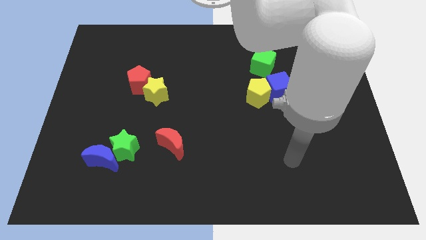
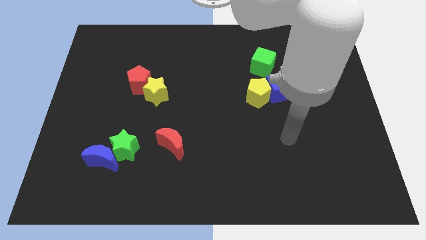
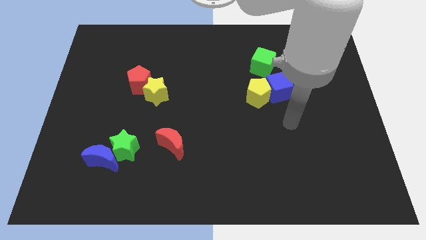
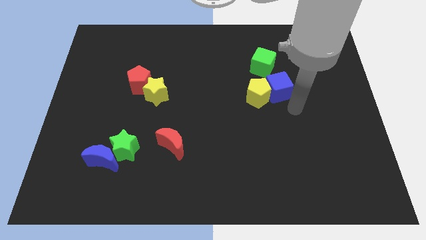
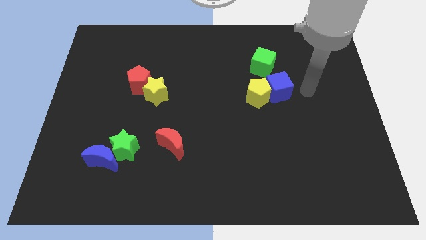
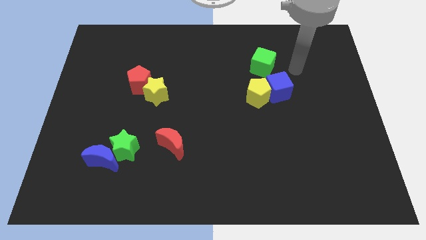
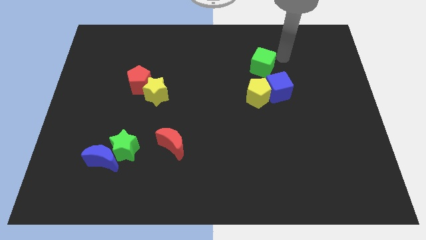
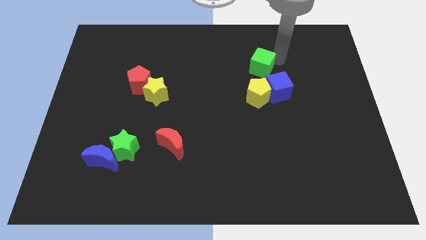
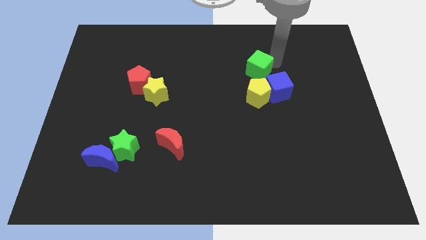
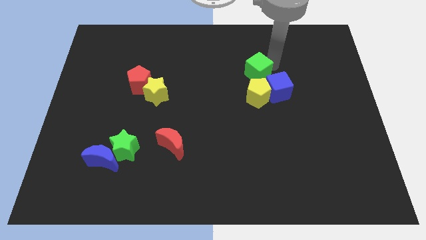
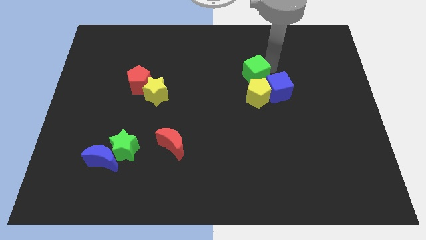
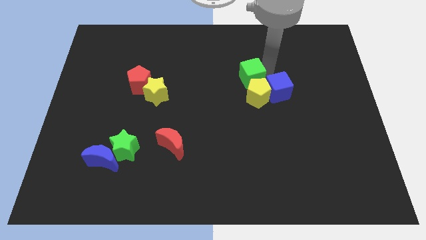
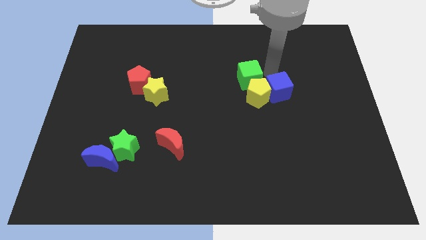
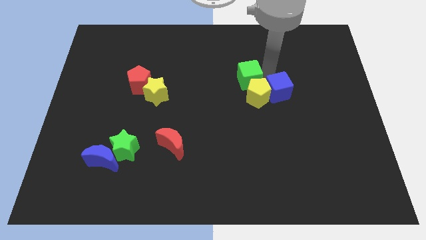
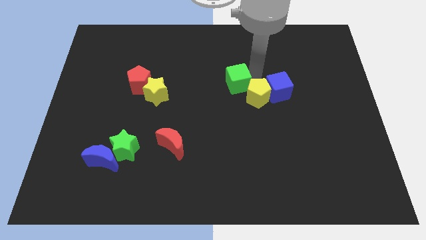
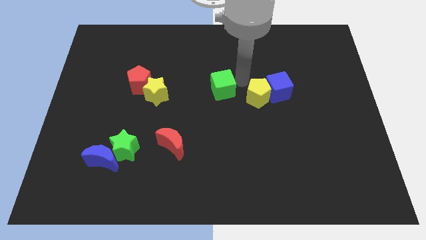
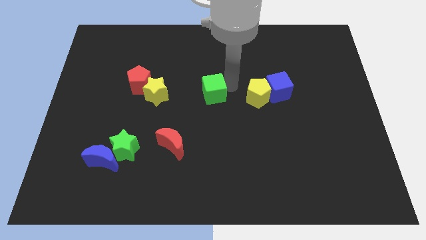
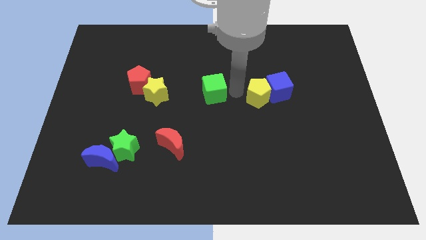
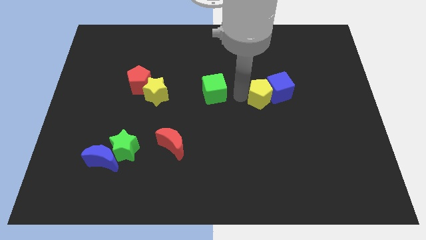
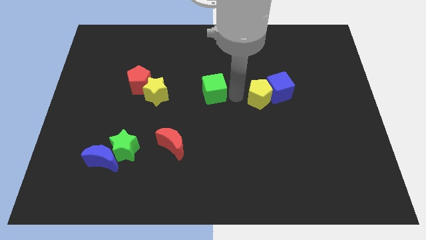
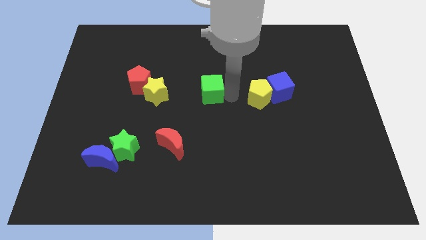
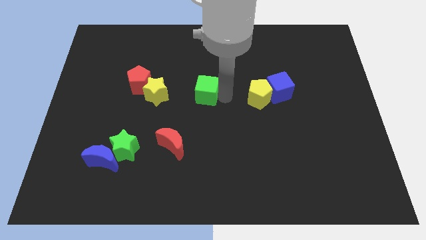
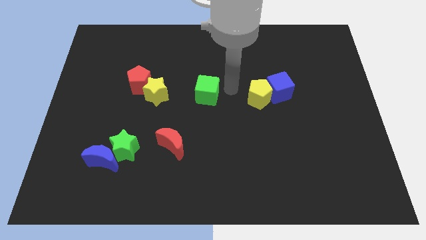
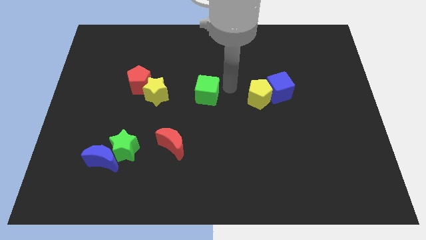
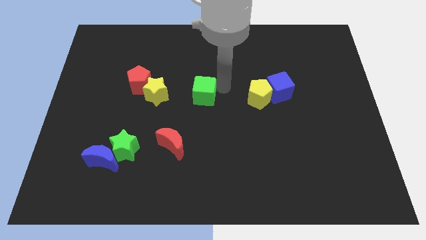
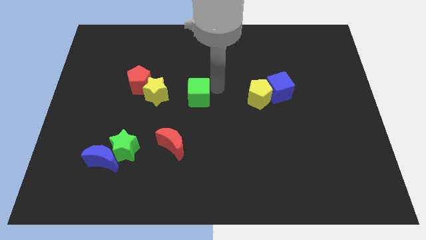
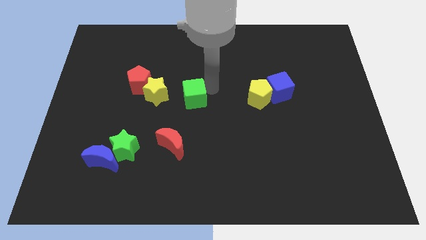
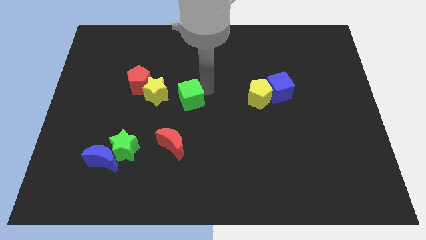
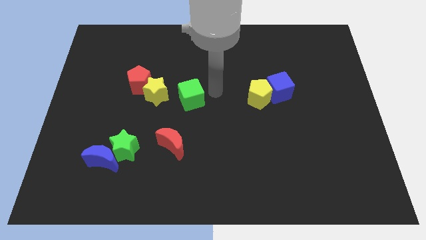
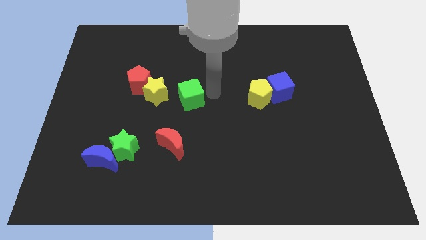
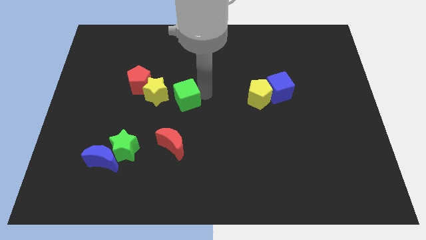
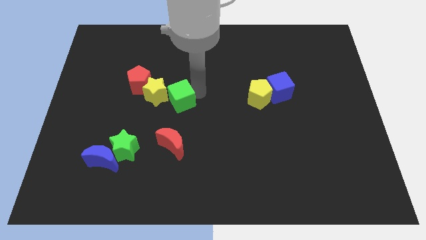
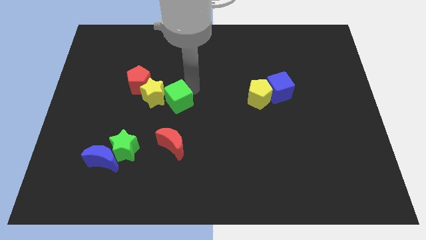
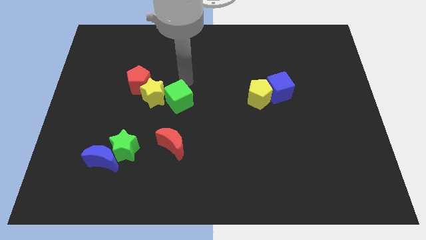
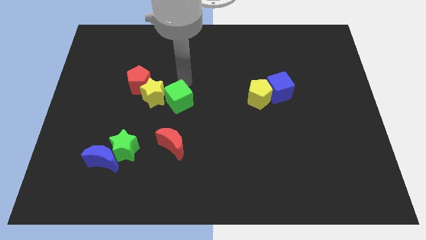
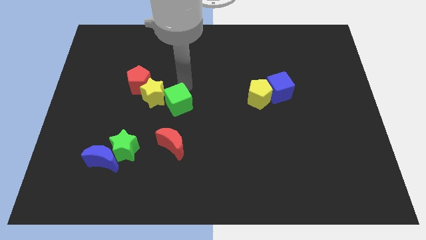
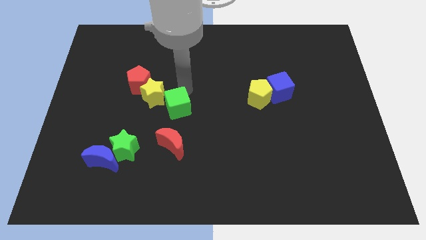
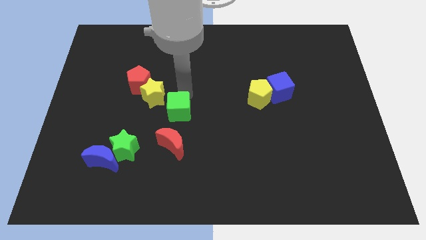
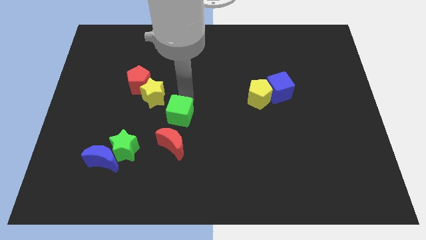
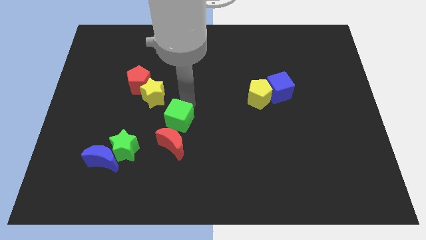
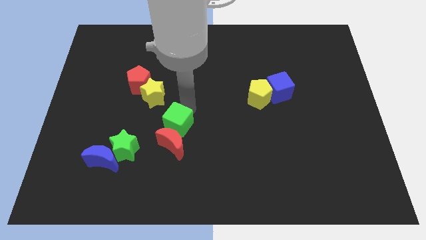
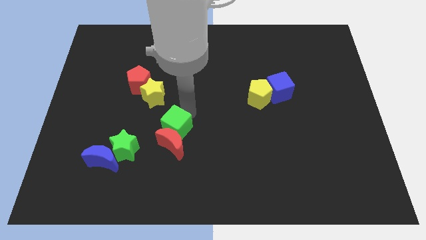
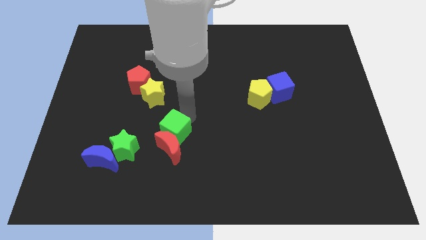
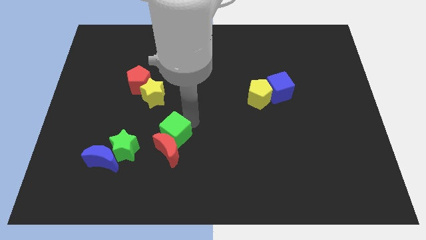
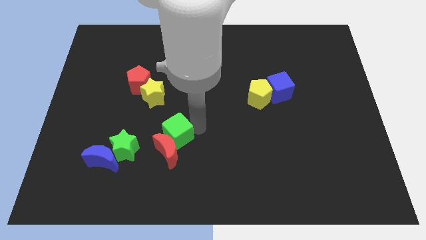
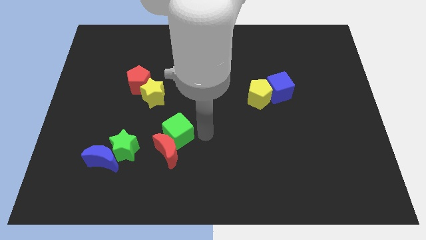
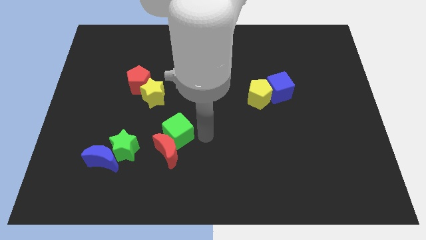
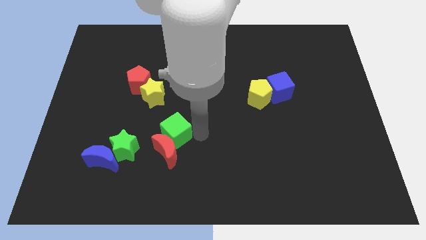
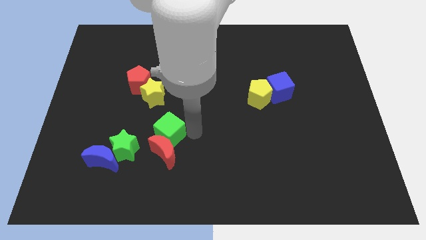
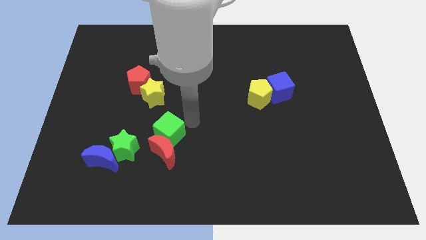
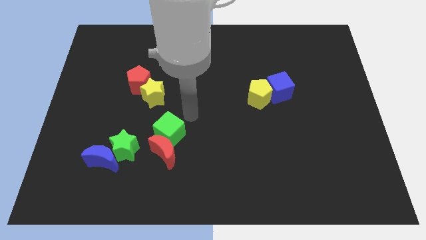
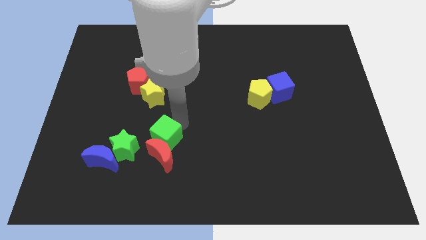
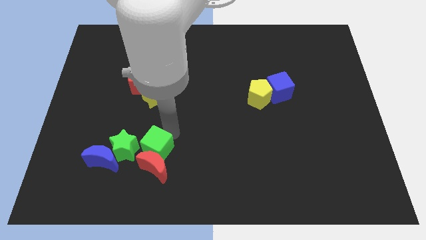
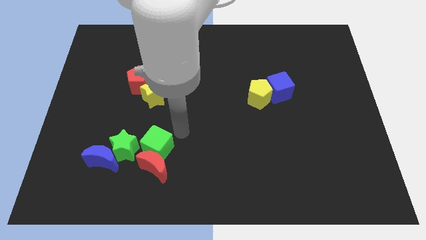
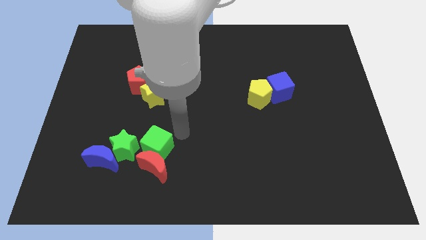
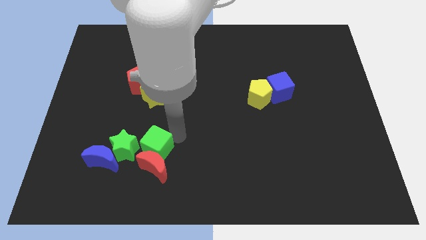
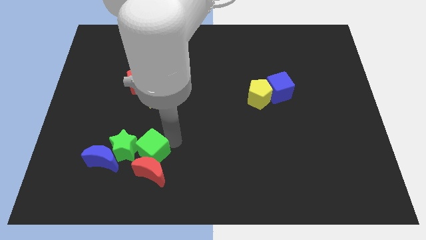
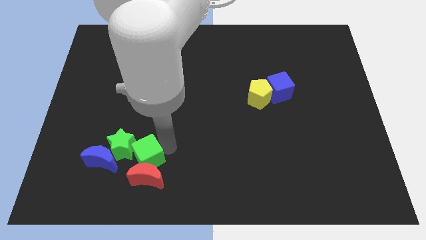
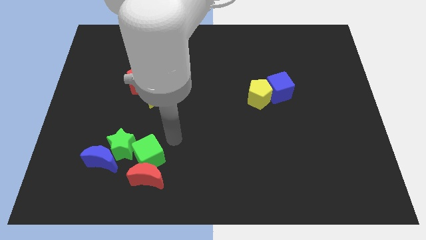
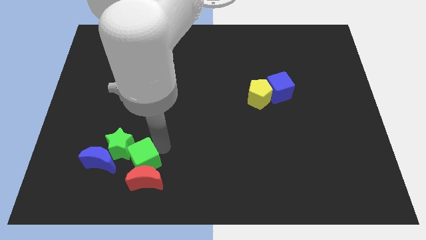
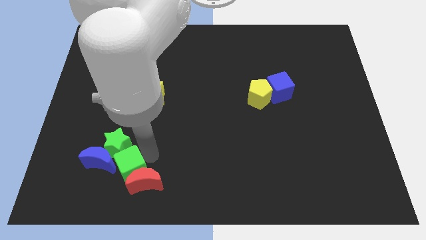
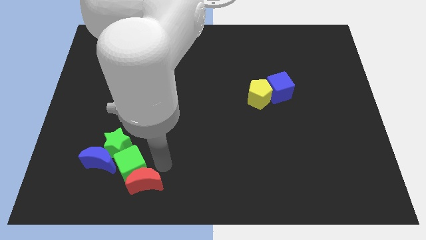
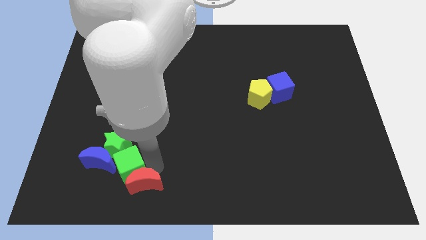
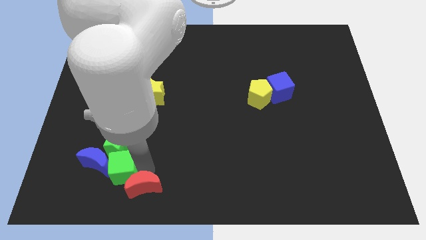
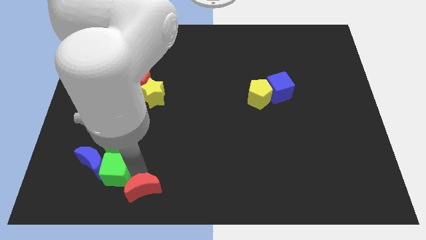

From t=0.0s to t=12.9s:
put the green cube diagonally down and to the left of the green star

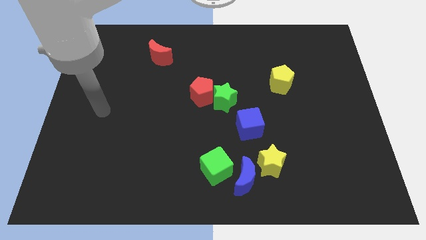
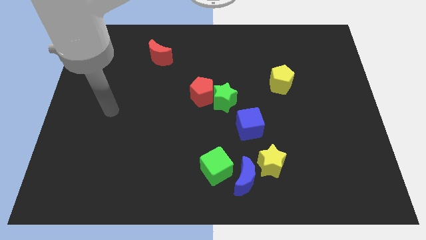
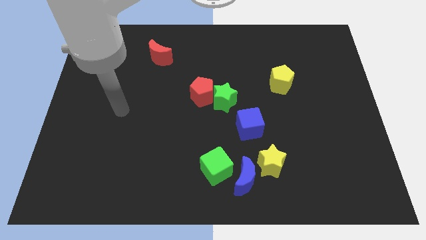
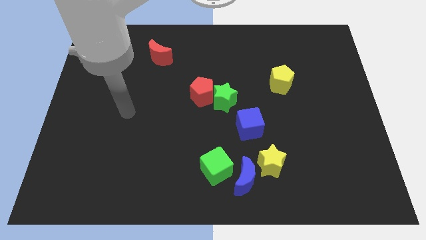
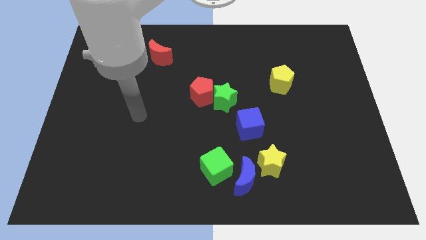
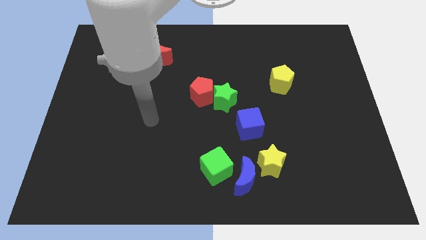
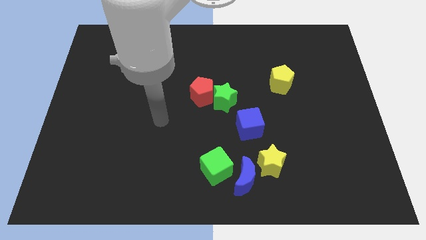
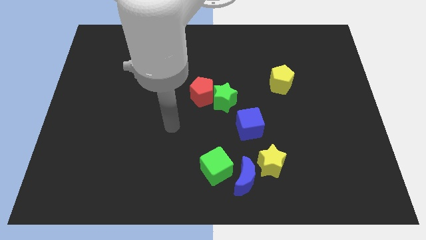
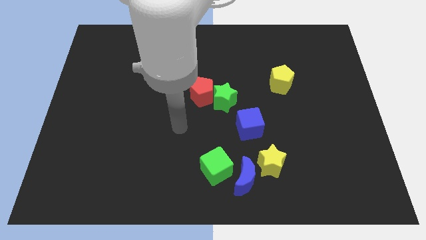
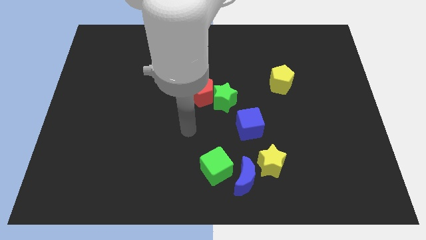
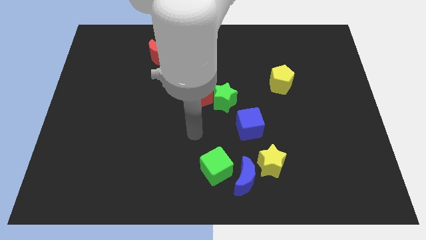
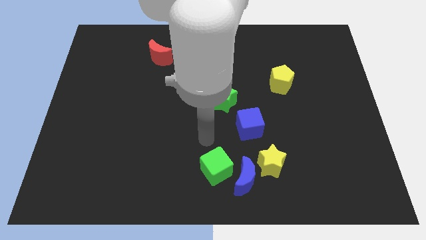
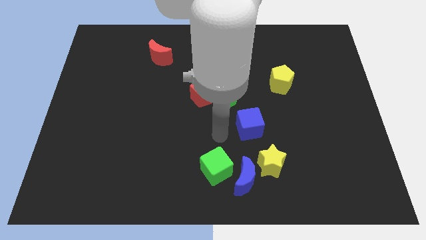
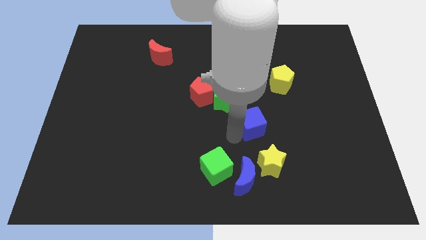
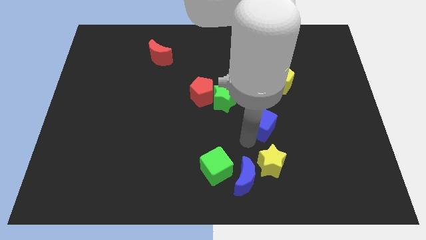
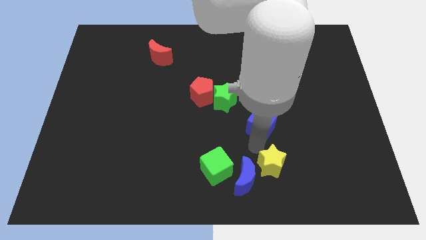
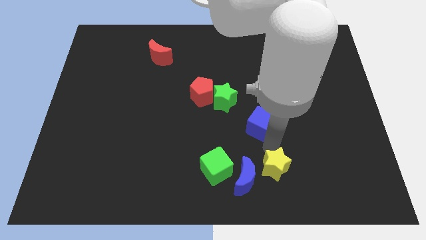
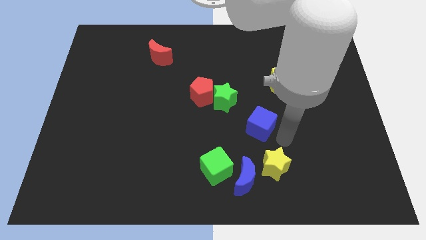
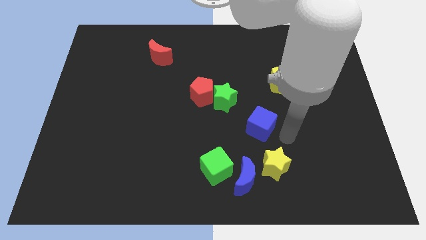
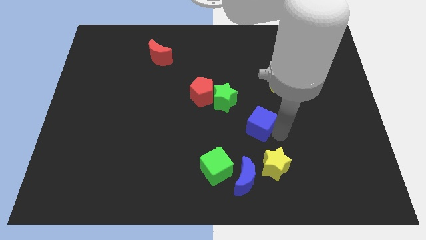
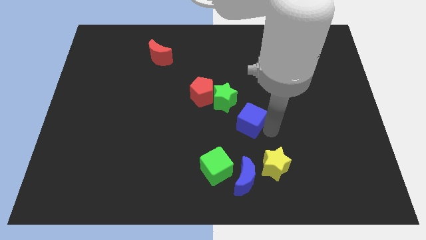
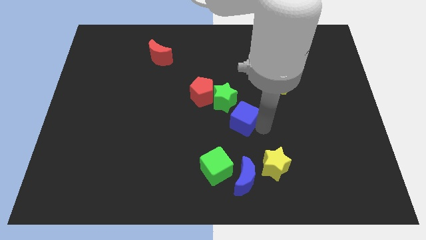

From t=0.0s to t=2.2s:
put the blue cube to the bottom right side of the red pentagon
